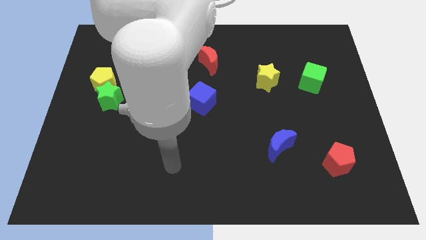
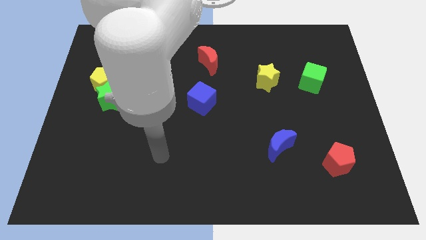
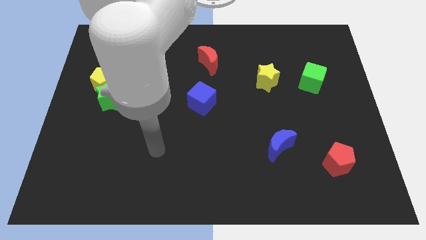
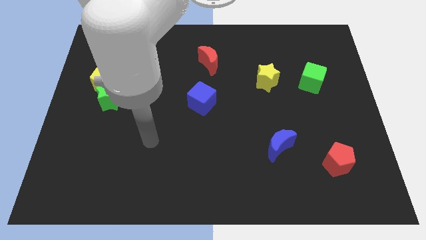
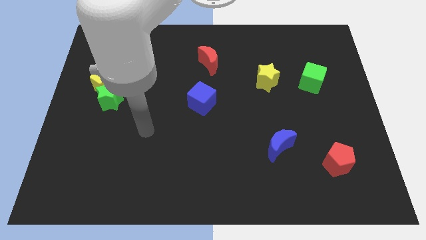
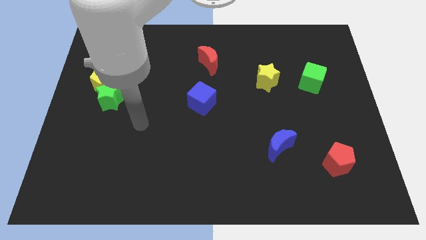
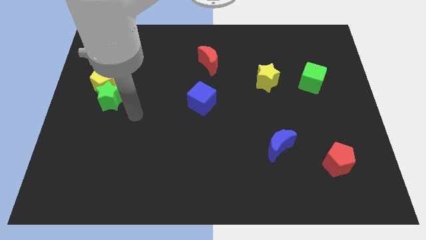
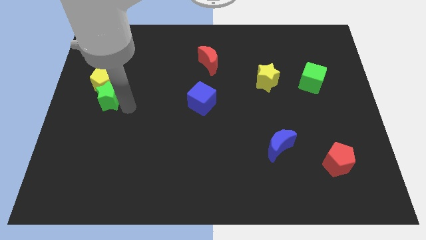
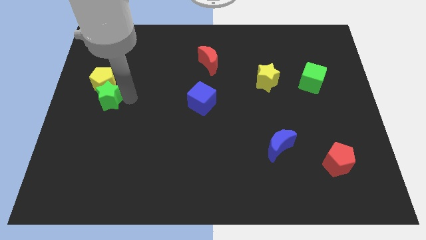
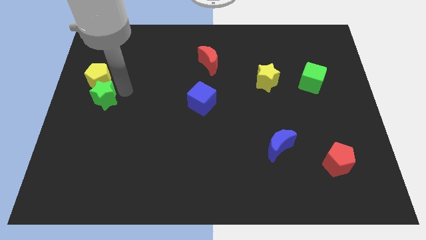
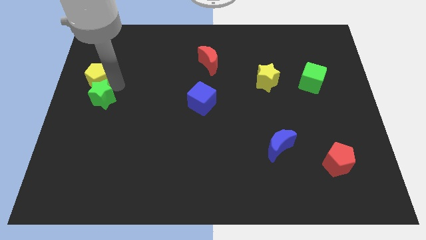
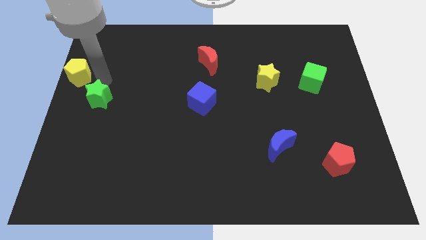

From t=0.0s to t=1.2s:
separate the green star from the yellow pentagon

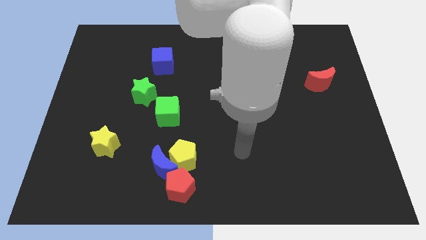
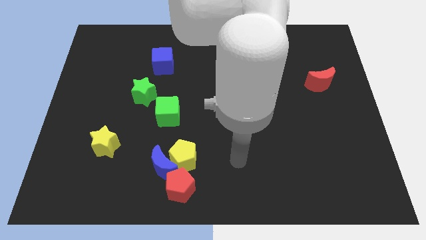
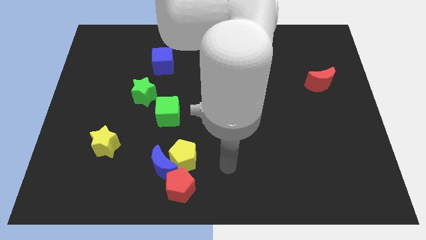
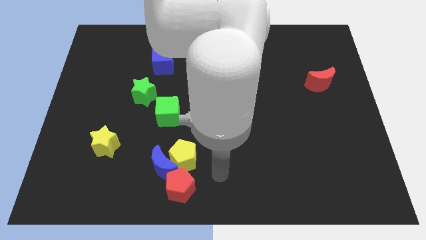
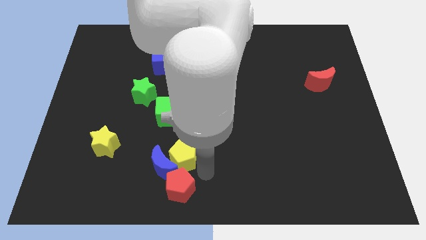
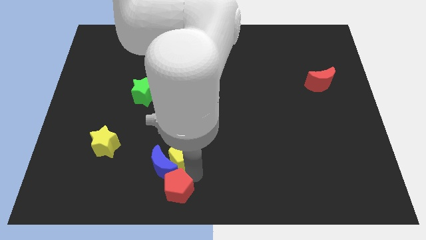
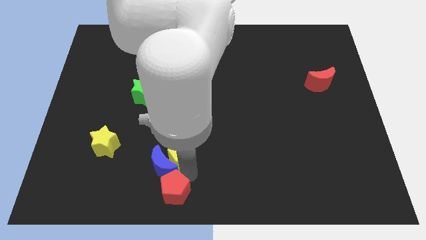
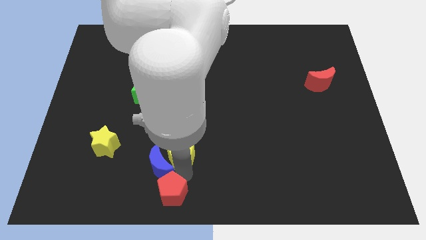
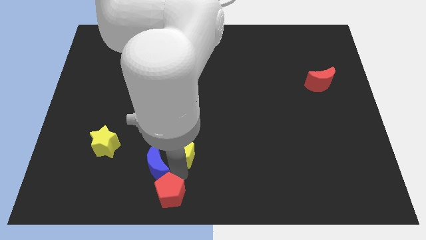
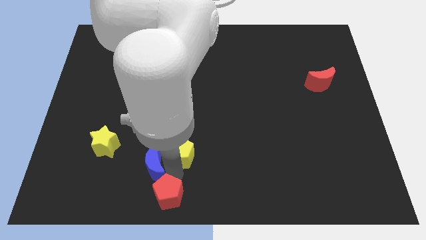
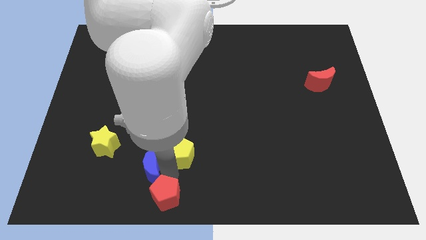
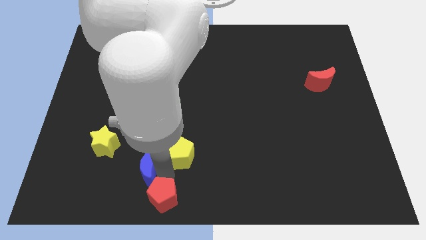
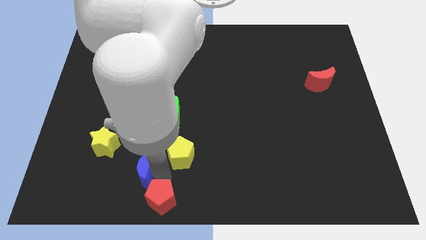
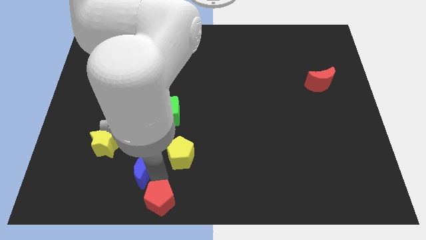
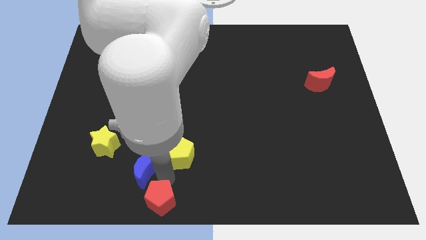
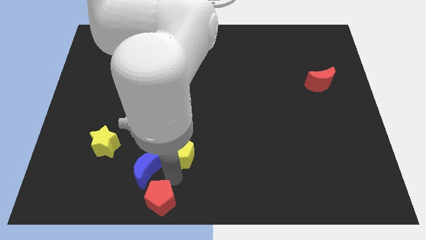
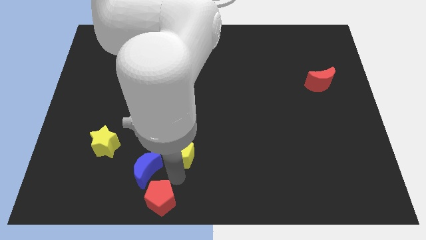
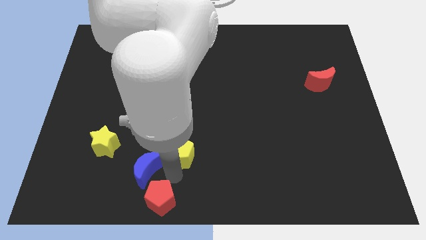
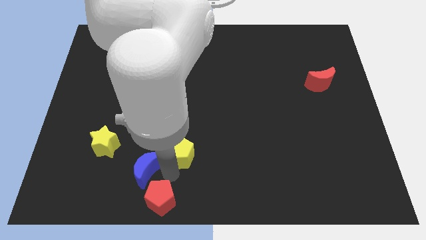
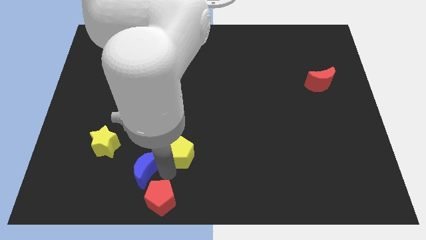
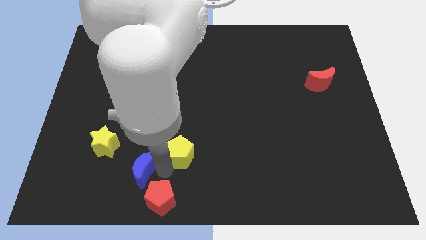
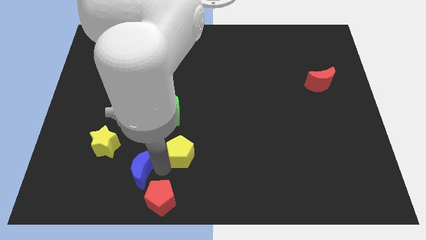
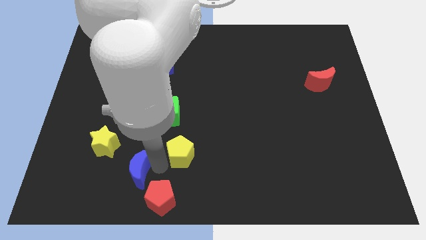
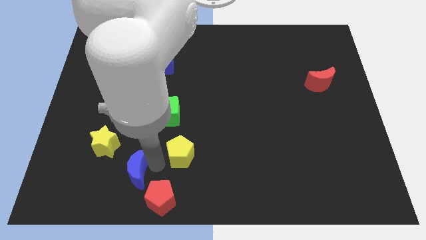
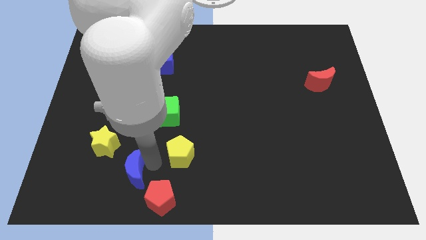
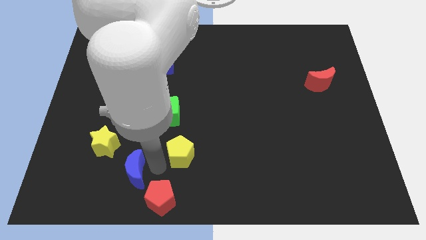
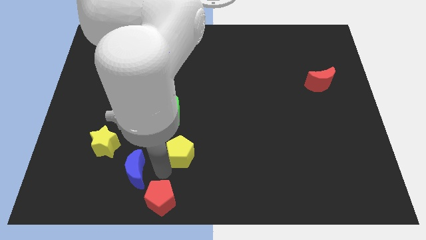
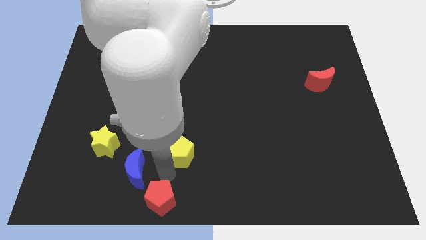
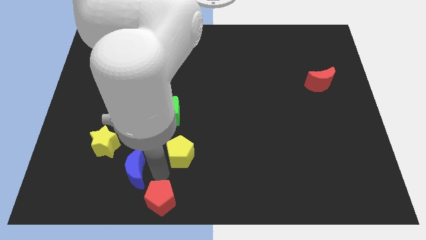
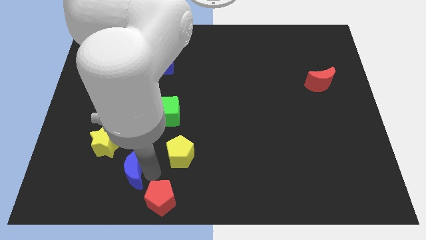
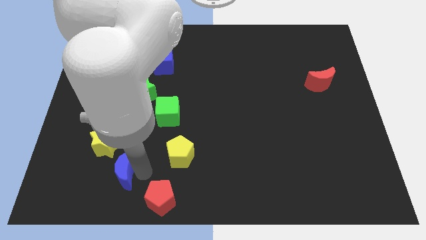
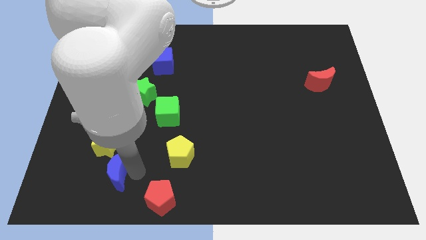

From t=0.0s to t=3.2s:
separate the blue moon from the yellow pentagon and red pentagon

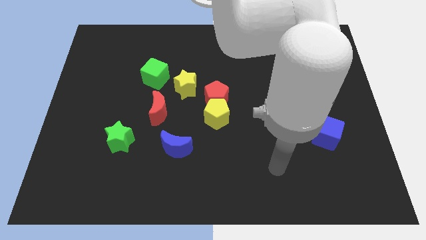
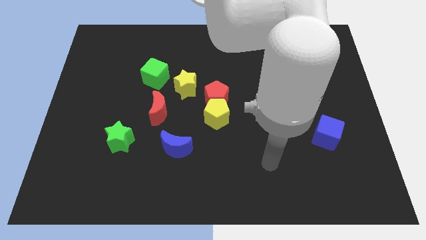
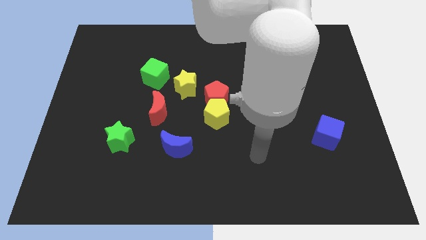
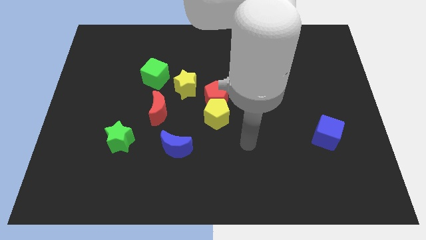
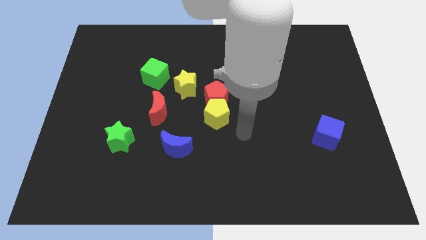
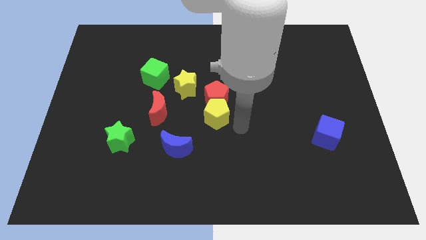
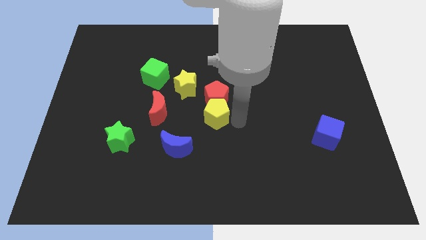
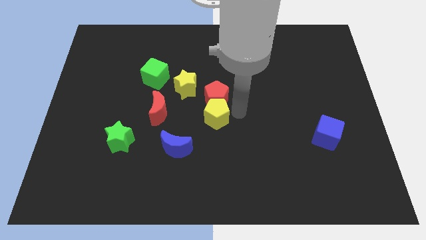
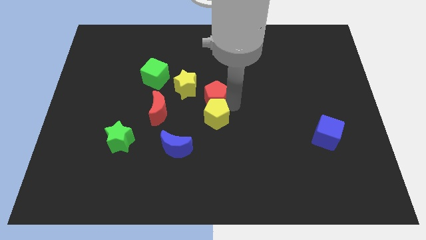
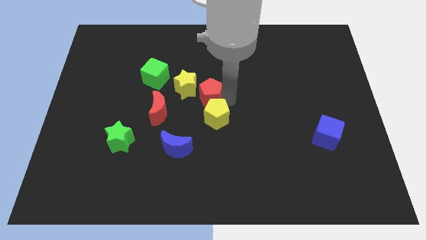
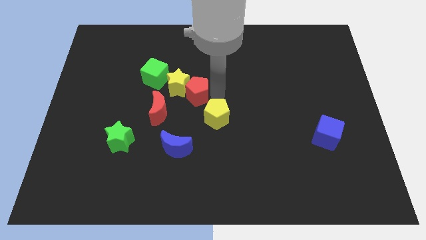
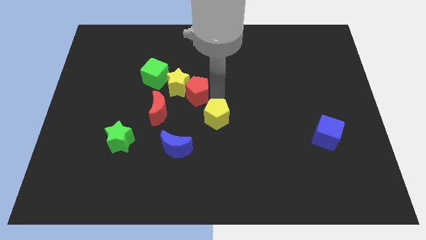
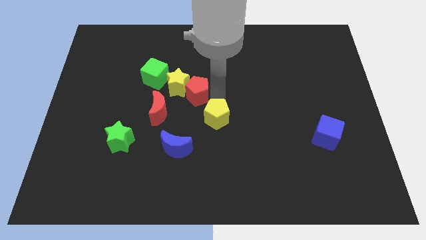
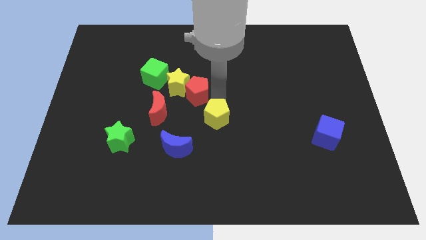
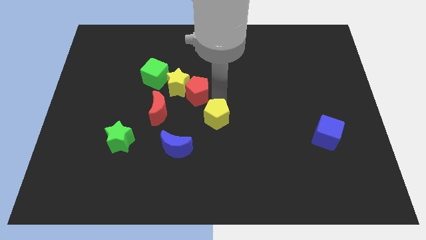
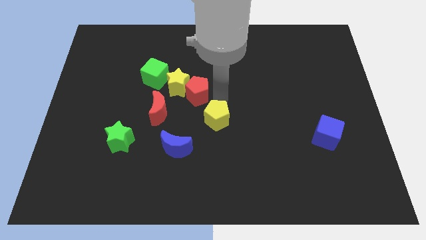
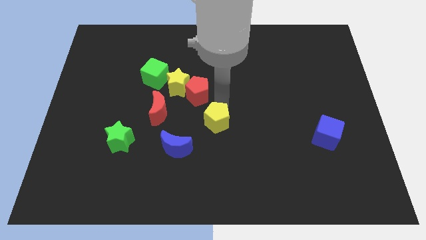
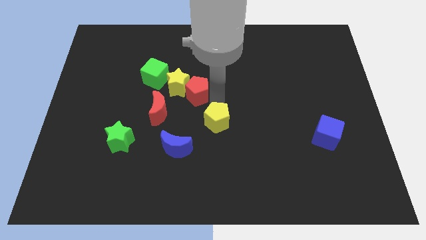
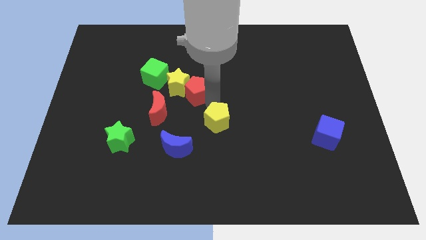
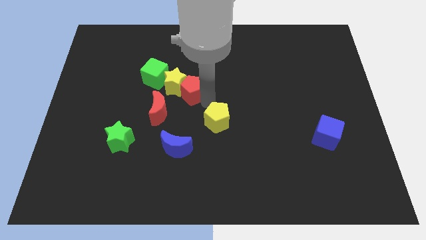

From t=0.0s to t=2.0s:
pull the yellow pentagon apart from the red pentagon

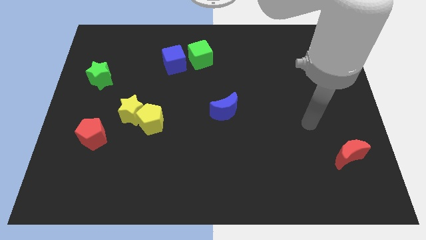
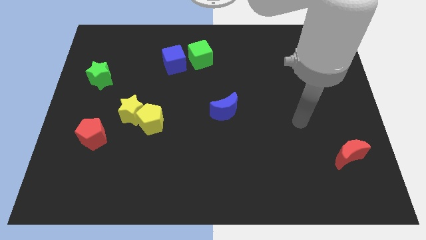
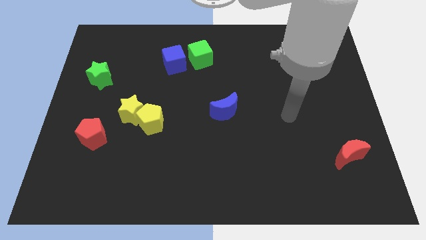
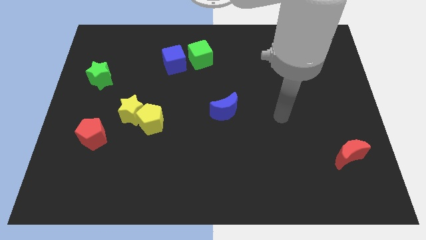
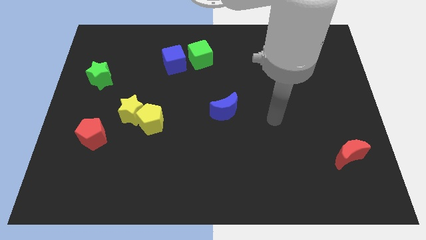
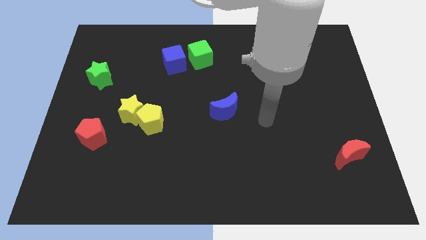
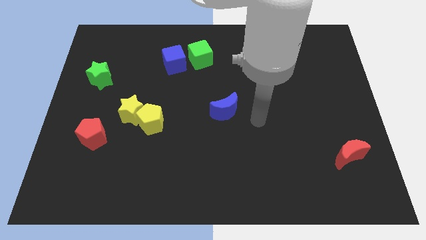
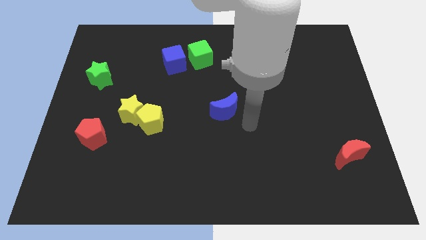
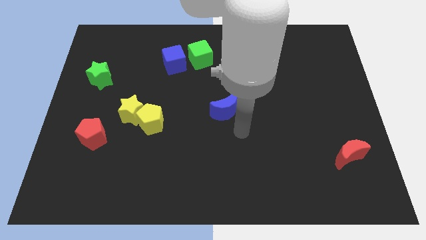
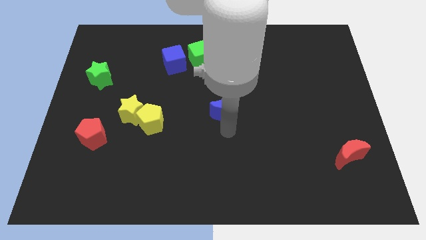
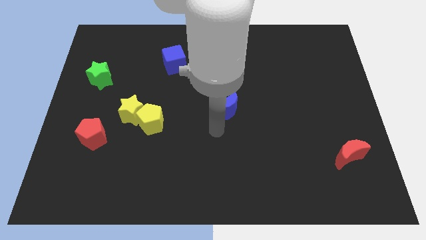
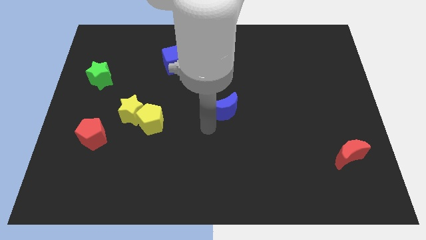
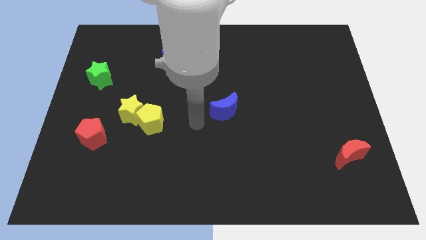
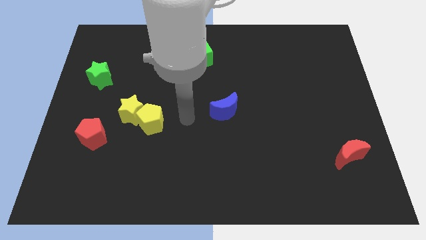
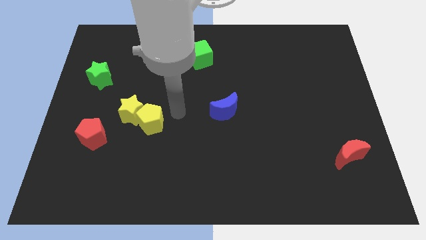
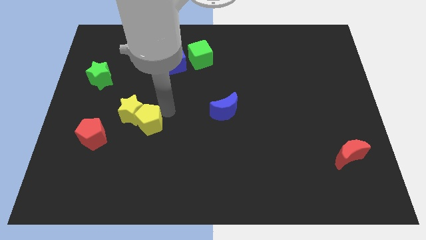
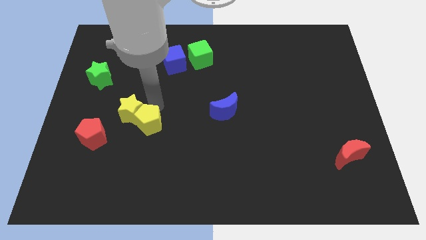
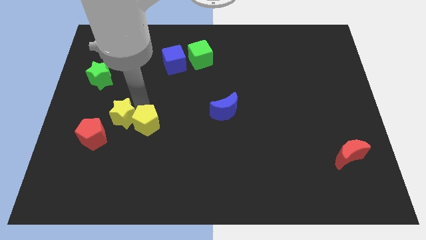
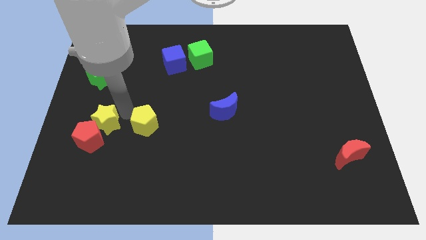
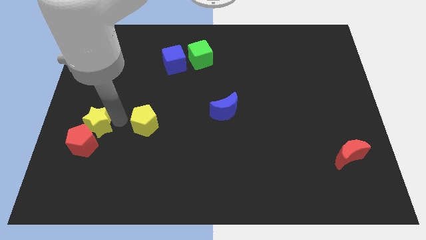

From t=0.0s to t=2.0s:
separate the yellow pentagon from the yellow star

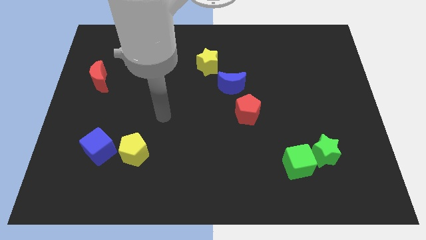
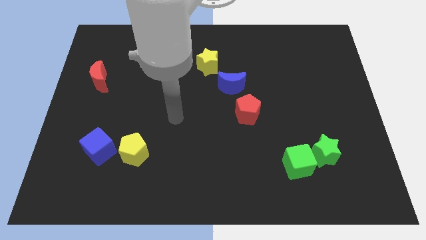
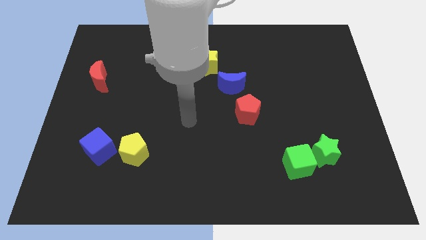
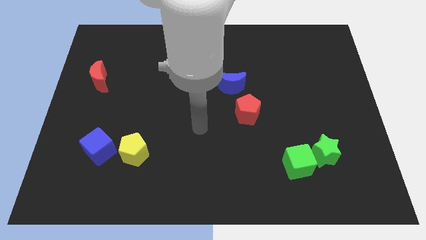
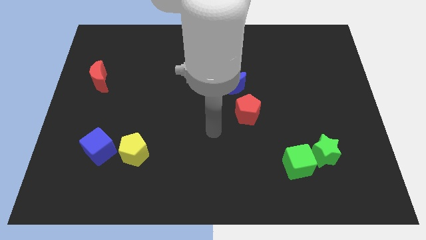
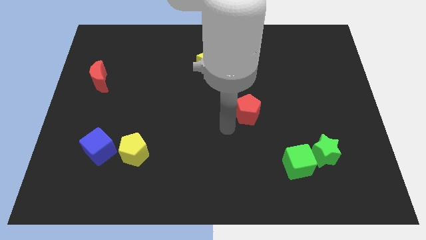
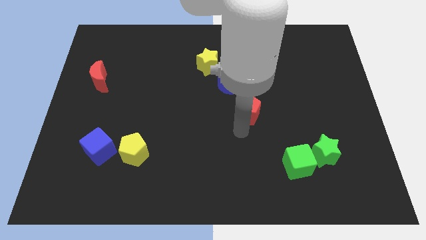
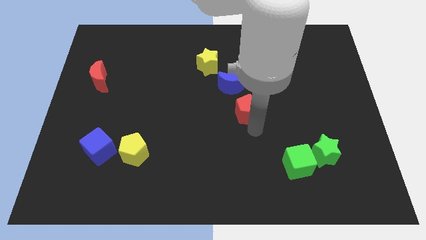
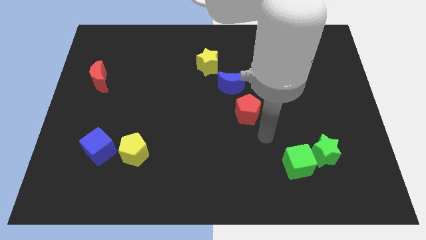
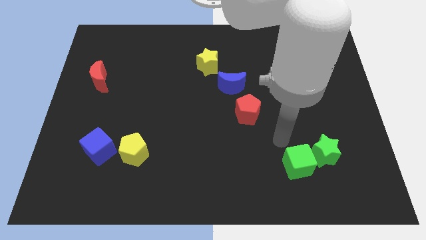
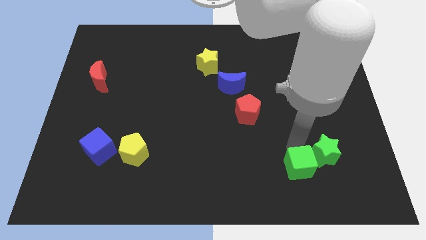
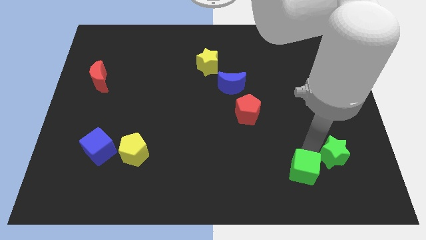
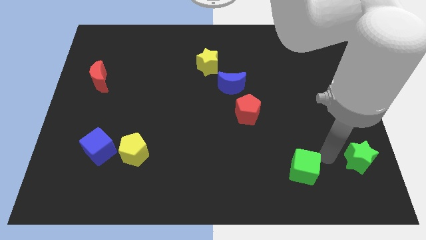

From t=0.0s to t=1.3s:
move the green cube away from the green star
